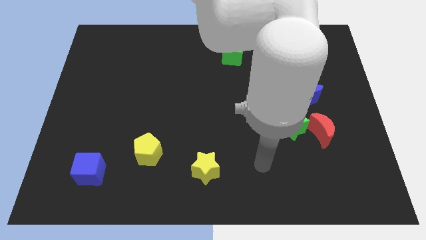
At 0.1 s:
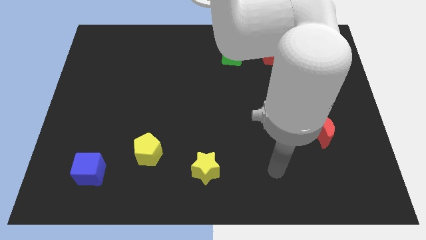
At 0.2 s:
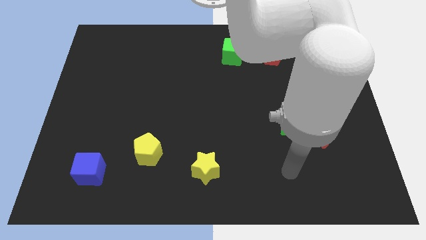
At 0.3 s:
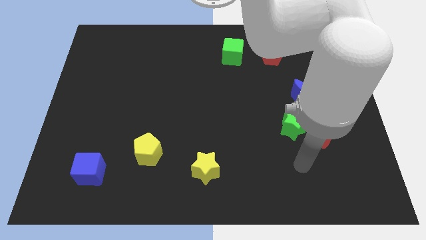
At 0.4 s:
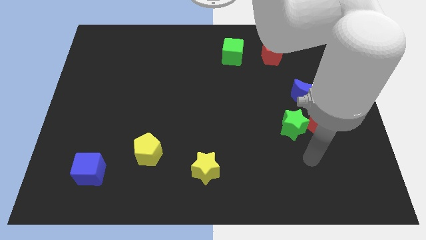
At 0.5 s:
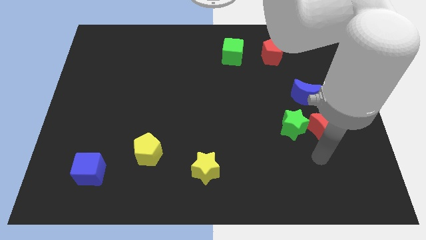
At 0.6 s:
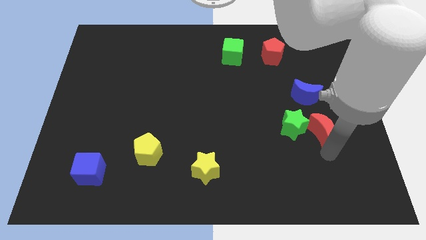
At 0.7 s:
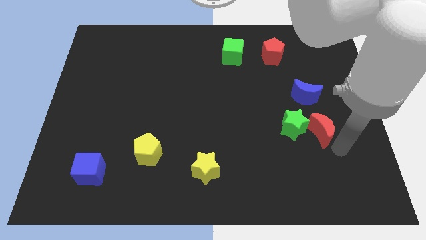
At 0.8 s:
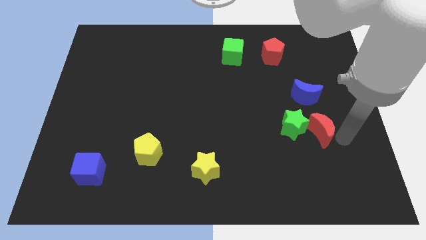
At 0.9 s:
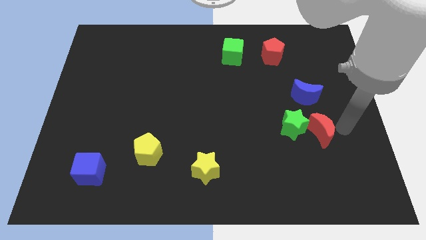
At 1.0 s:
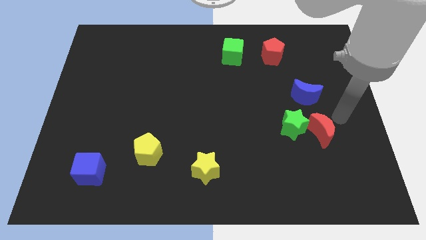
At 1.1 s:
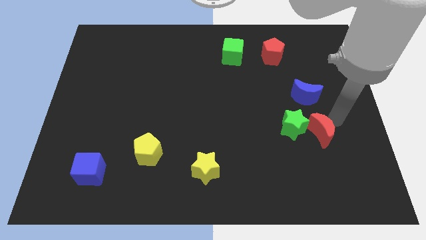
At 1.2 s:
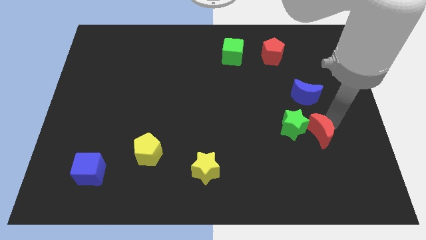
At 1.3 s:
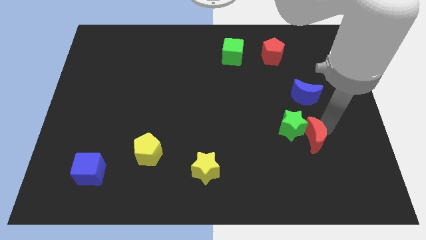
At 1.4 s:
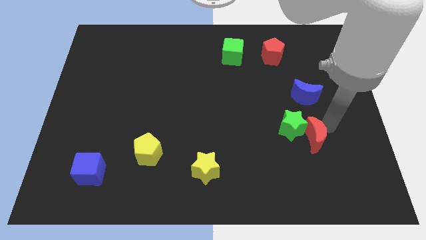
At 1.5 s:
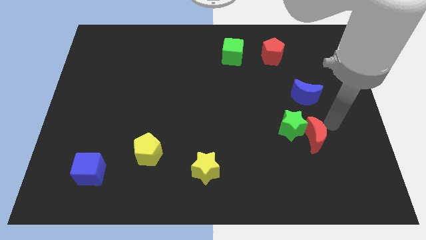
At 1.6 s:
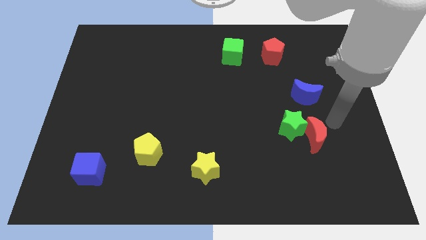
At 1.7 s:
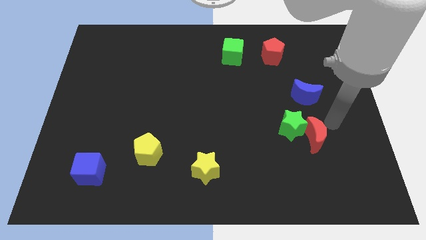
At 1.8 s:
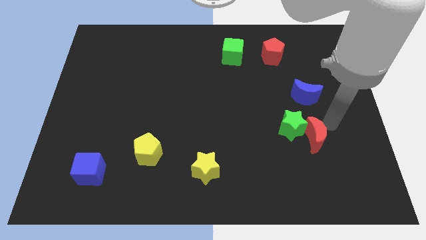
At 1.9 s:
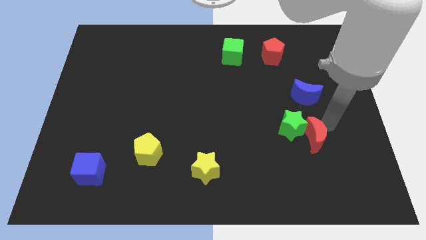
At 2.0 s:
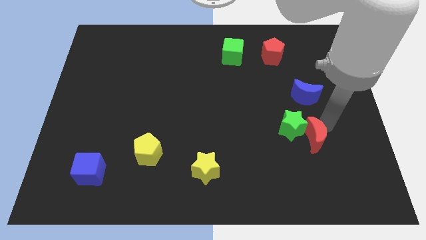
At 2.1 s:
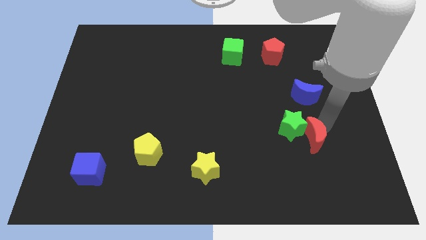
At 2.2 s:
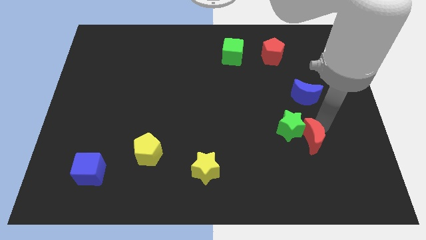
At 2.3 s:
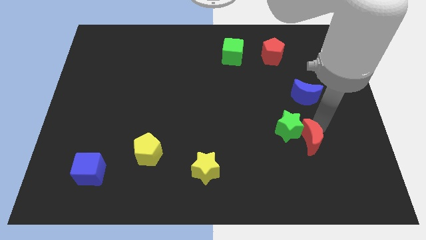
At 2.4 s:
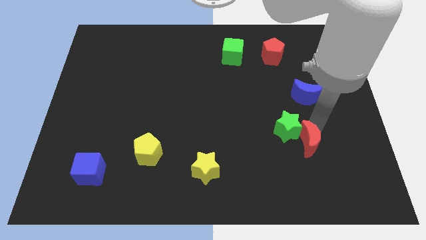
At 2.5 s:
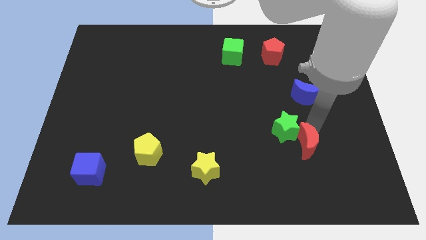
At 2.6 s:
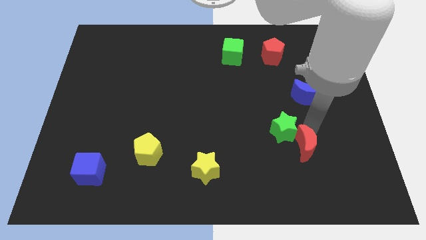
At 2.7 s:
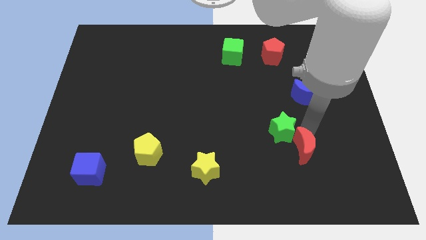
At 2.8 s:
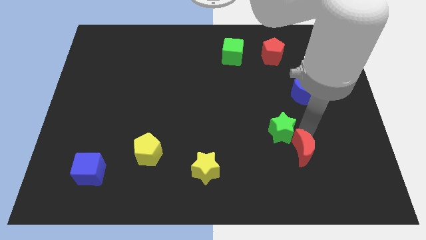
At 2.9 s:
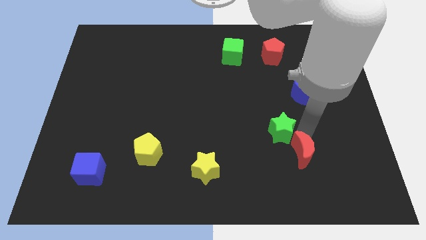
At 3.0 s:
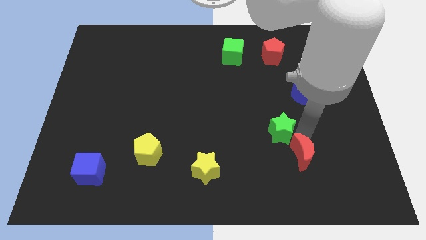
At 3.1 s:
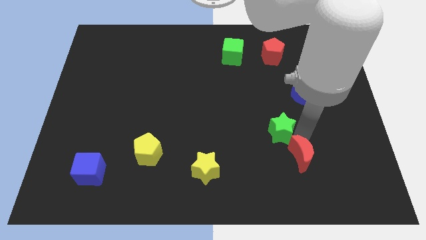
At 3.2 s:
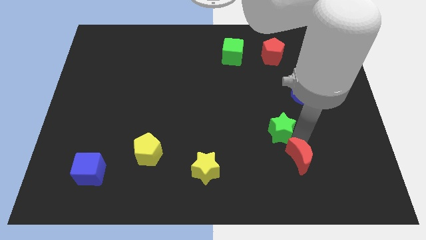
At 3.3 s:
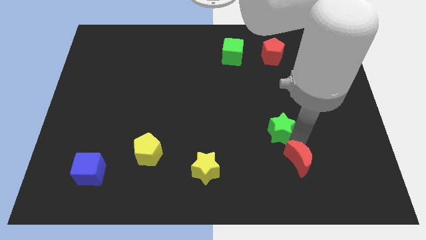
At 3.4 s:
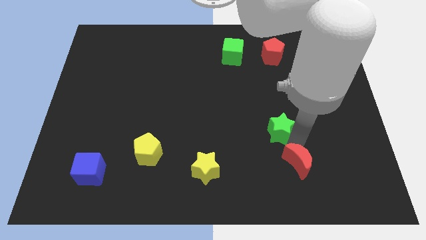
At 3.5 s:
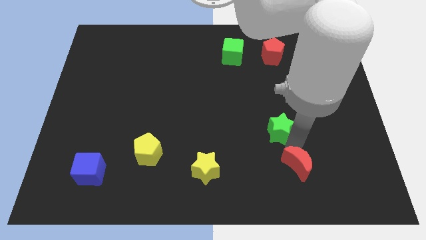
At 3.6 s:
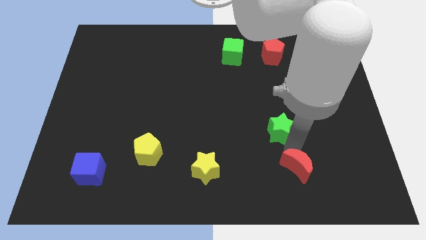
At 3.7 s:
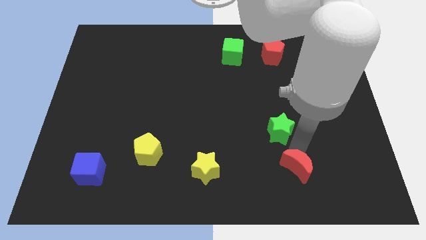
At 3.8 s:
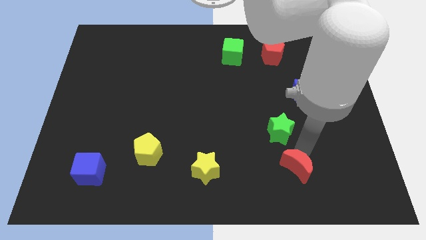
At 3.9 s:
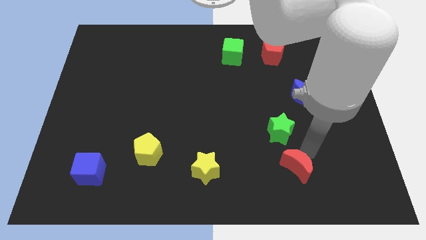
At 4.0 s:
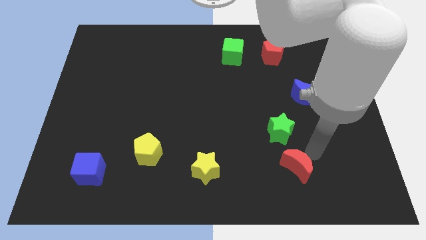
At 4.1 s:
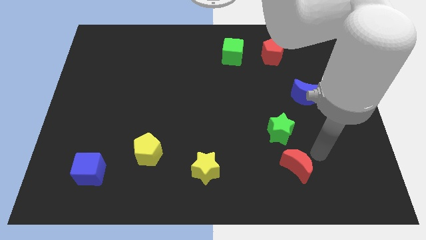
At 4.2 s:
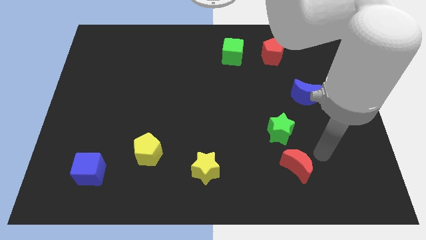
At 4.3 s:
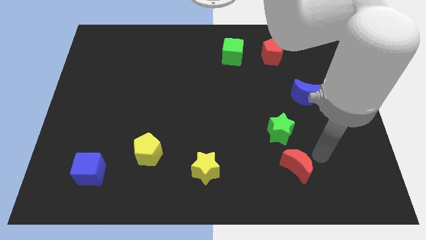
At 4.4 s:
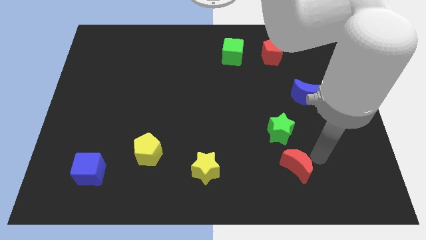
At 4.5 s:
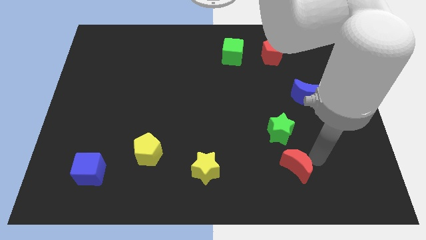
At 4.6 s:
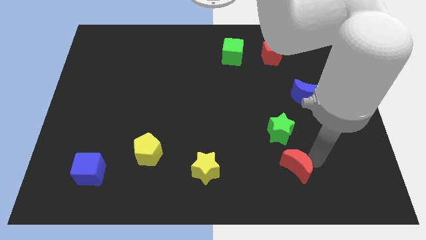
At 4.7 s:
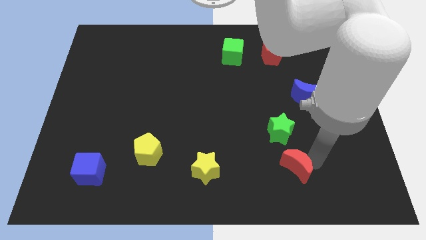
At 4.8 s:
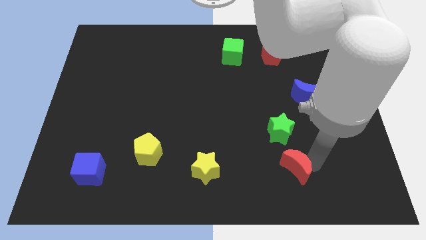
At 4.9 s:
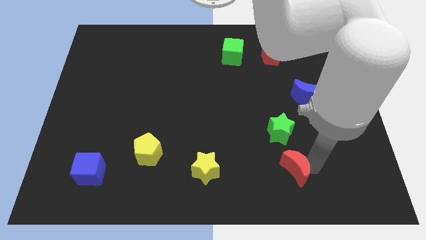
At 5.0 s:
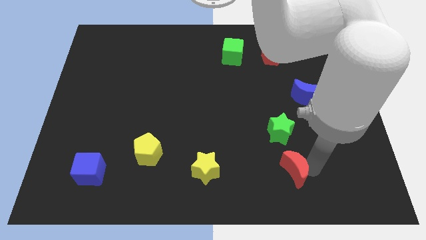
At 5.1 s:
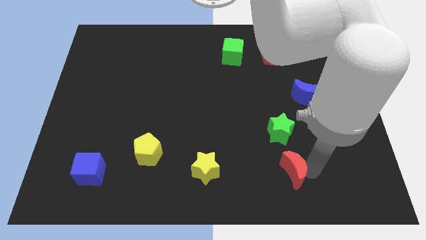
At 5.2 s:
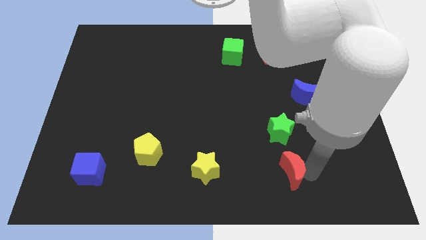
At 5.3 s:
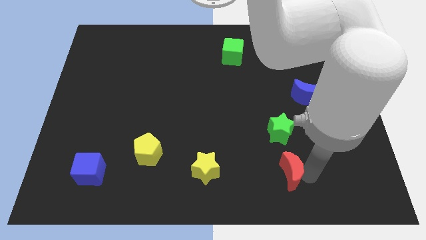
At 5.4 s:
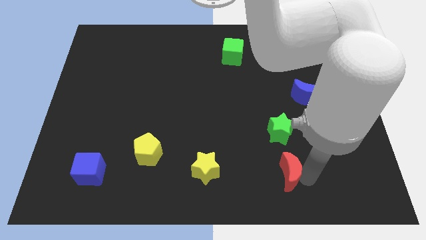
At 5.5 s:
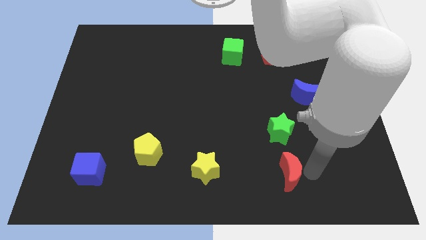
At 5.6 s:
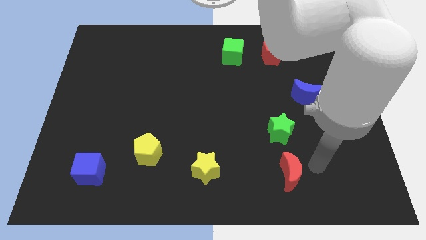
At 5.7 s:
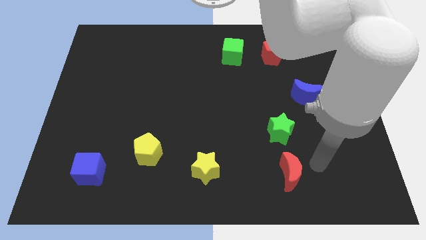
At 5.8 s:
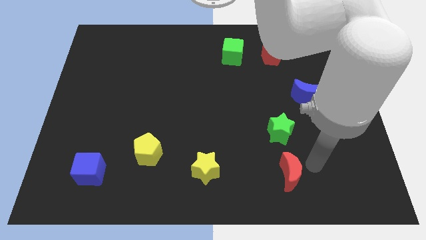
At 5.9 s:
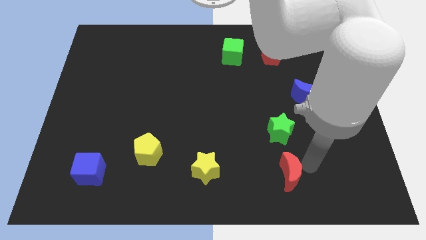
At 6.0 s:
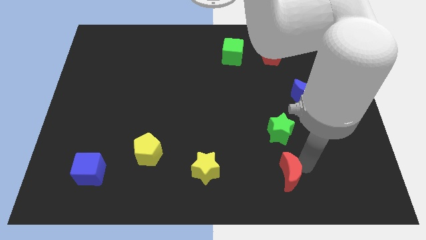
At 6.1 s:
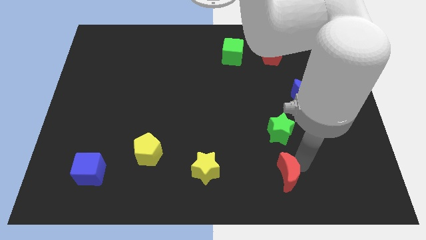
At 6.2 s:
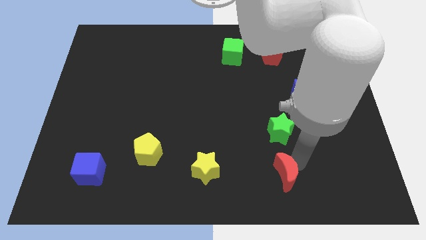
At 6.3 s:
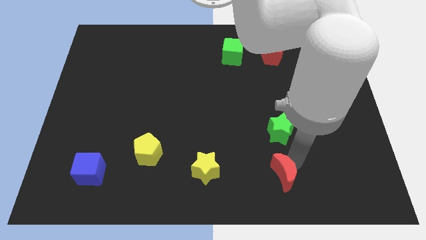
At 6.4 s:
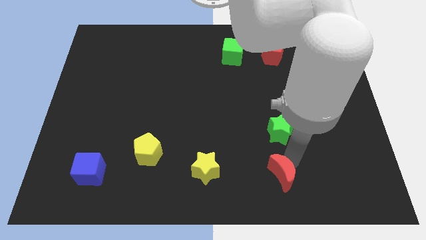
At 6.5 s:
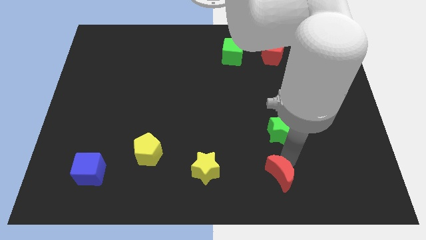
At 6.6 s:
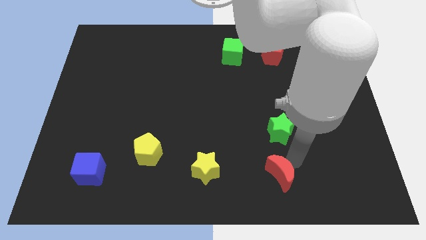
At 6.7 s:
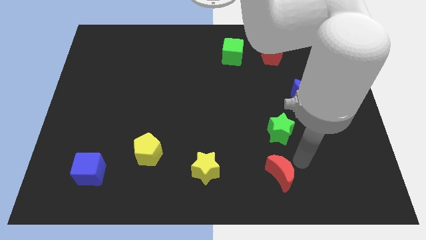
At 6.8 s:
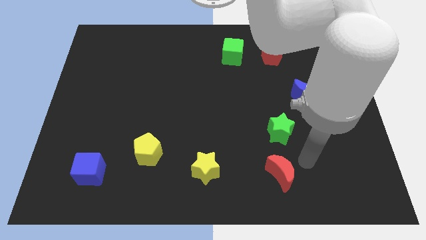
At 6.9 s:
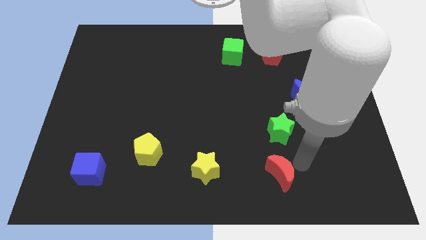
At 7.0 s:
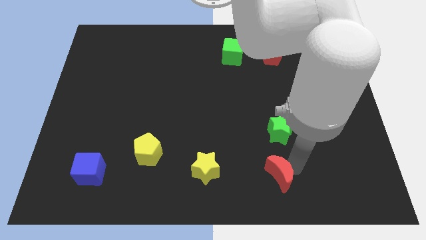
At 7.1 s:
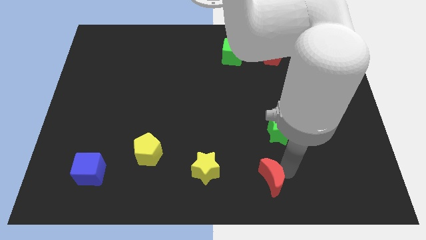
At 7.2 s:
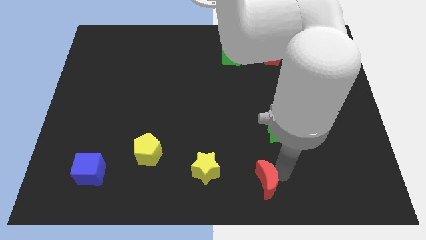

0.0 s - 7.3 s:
put the red moon to the bottom
